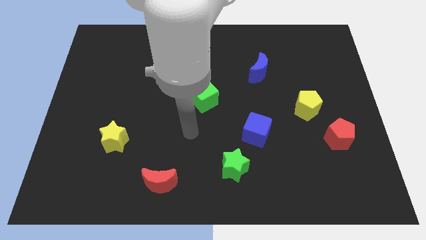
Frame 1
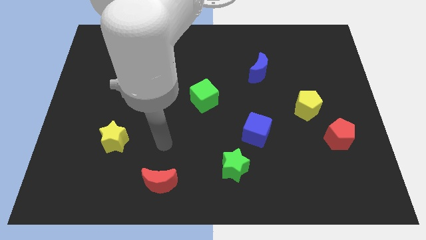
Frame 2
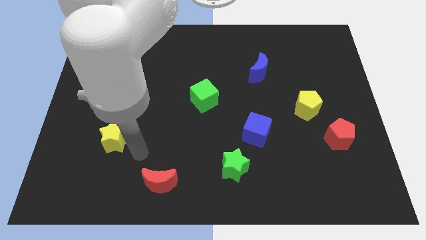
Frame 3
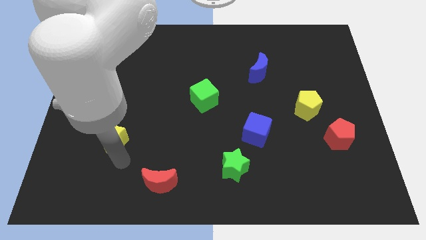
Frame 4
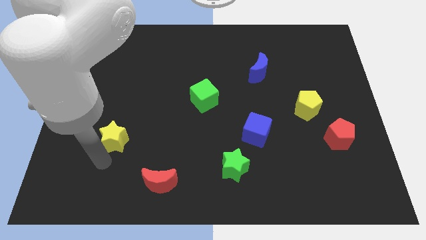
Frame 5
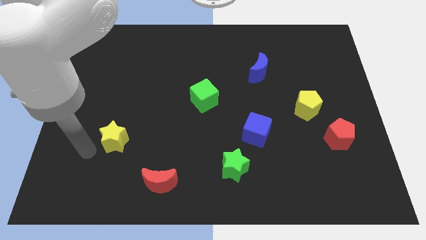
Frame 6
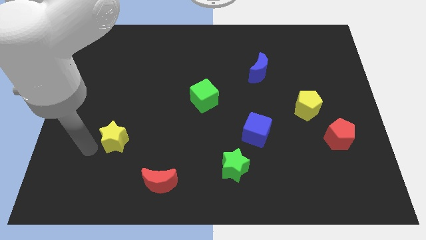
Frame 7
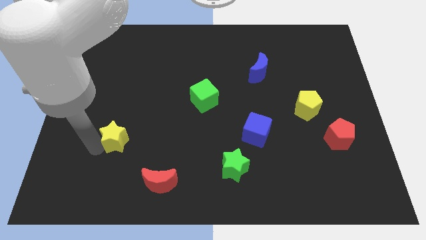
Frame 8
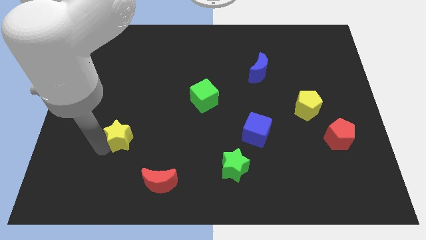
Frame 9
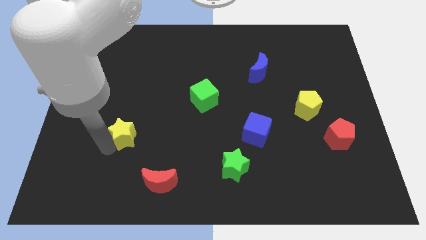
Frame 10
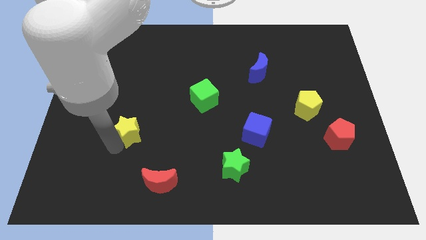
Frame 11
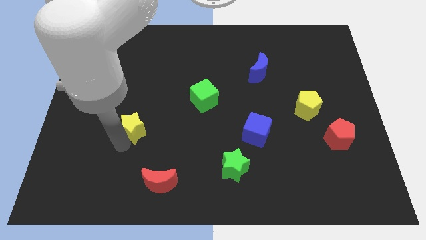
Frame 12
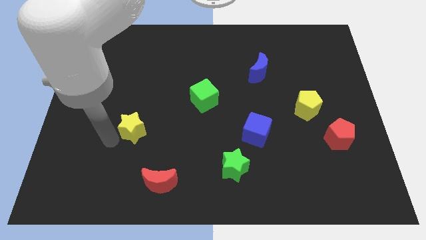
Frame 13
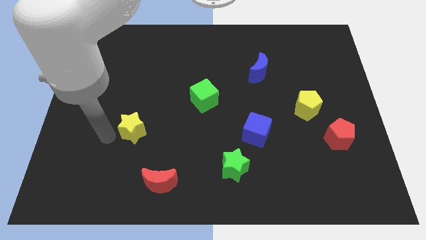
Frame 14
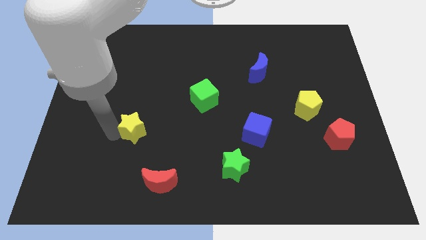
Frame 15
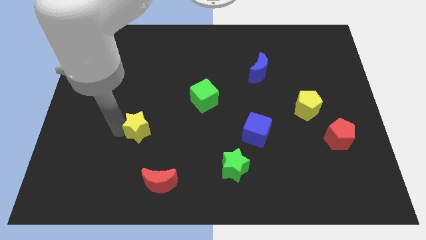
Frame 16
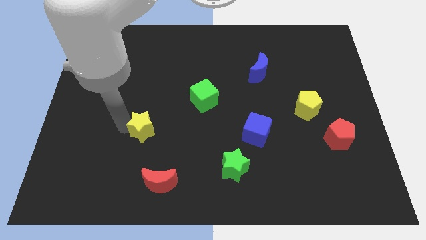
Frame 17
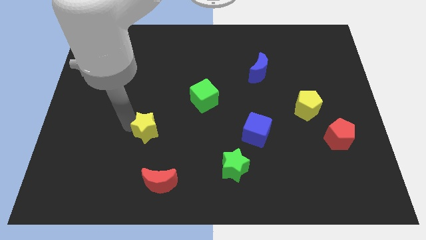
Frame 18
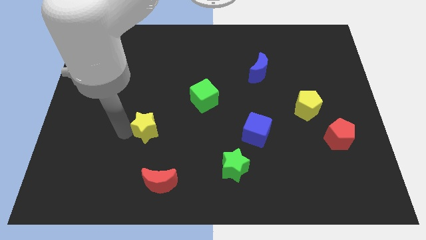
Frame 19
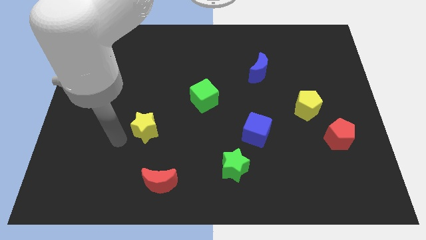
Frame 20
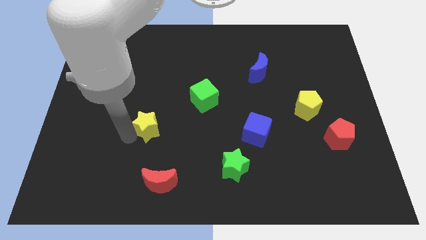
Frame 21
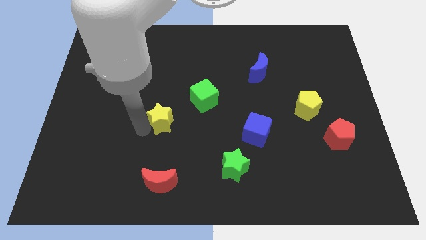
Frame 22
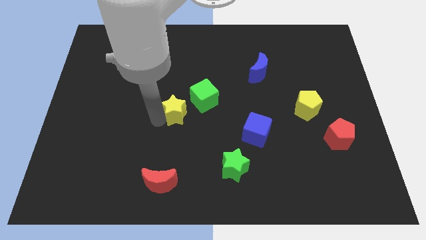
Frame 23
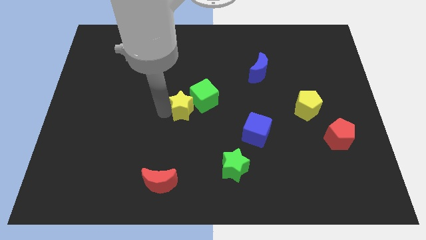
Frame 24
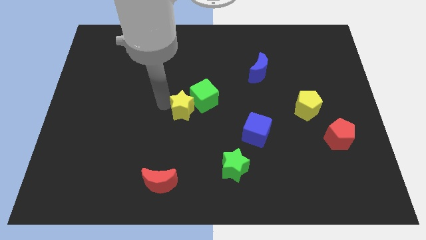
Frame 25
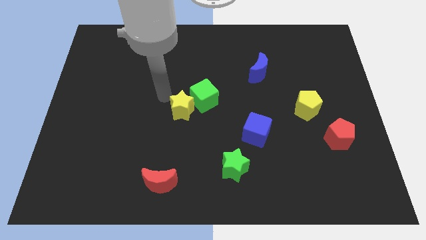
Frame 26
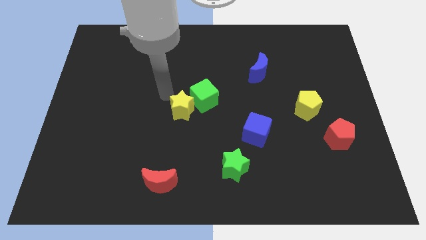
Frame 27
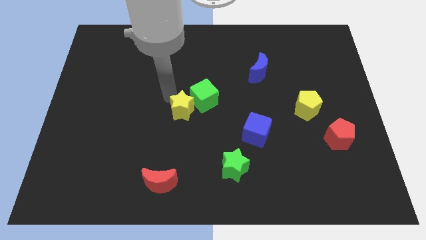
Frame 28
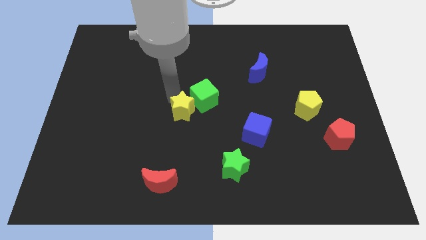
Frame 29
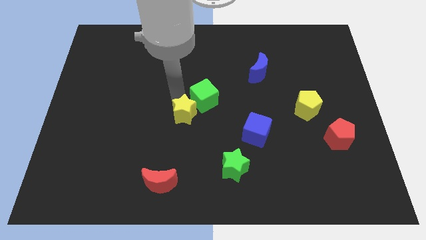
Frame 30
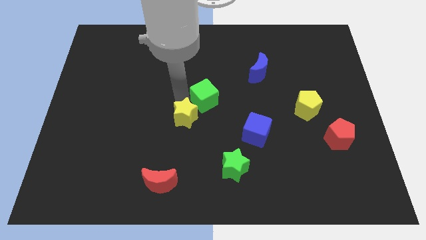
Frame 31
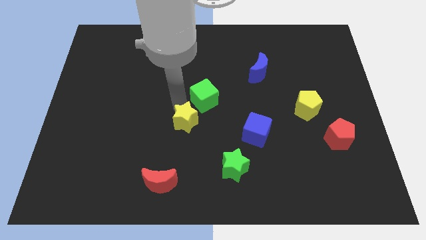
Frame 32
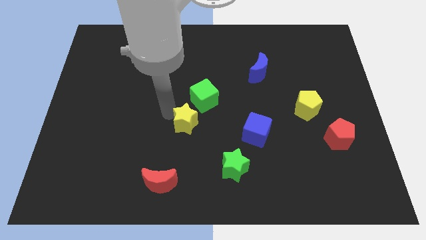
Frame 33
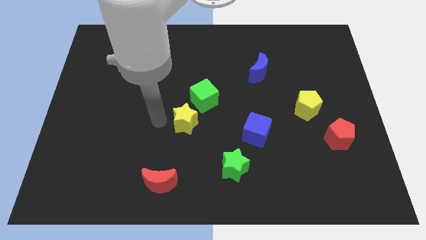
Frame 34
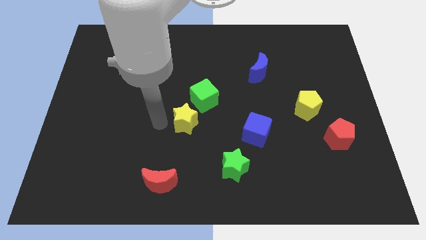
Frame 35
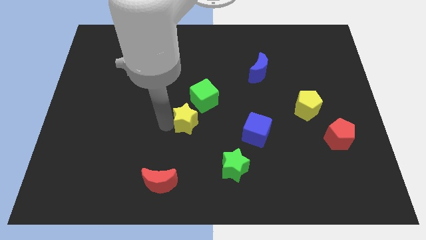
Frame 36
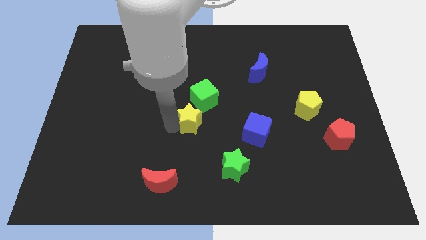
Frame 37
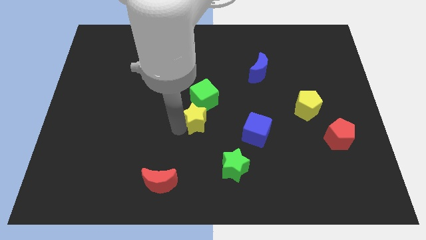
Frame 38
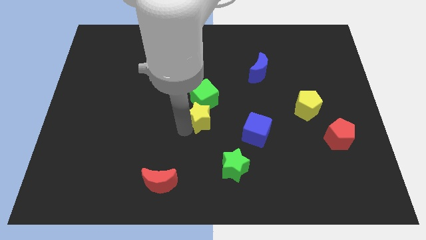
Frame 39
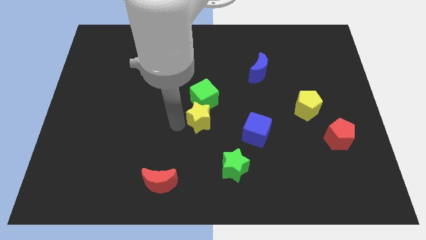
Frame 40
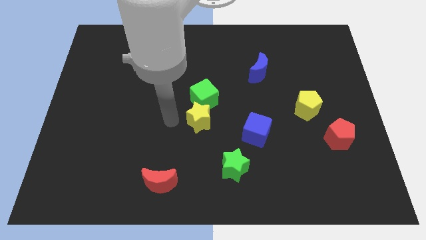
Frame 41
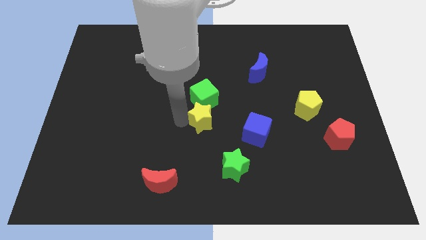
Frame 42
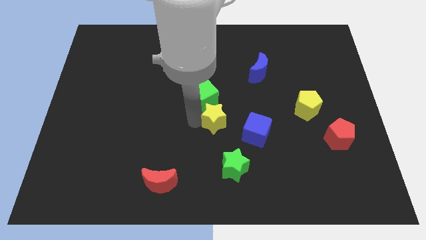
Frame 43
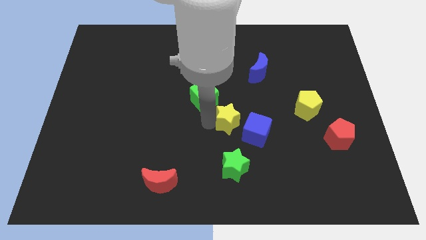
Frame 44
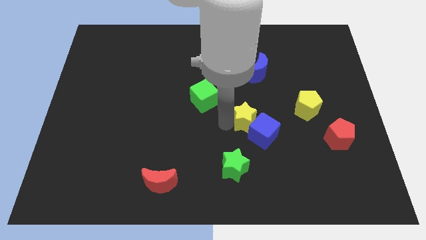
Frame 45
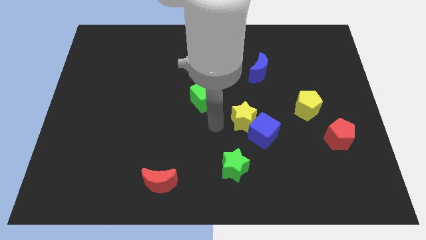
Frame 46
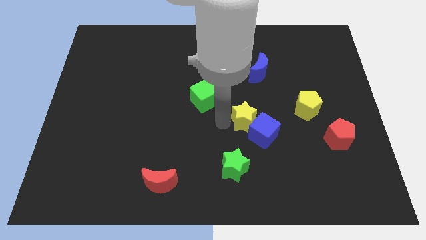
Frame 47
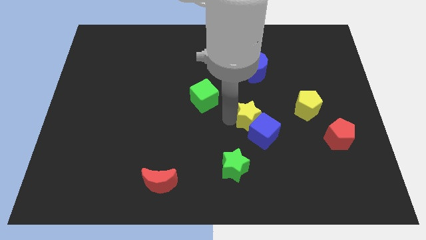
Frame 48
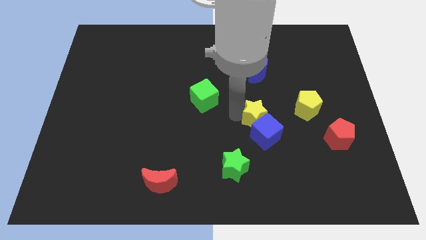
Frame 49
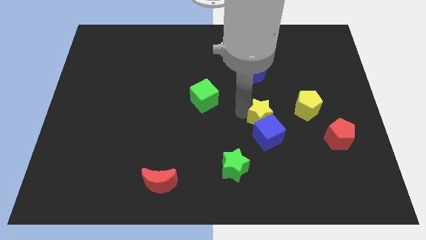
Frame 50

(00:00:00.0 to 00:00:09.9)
push the yellow star to the top right side of the blue cube

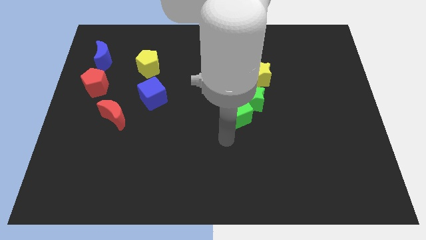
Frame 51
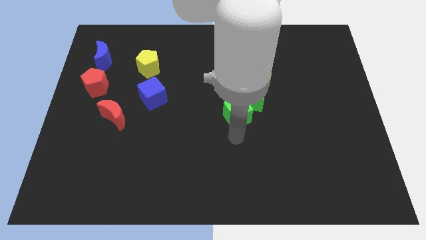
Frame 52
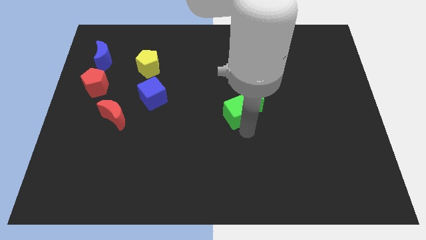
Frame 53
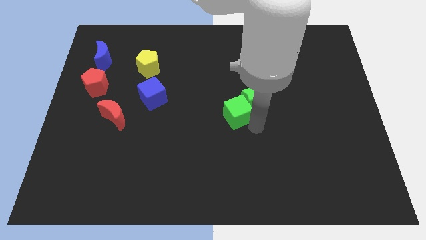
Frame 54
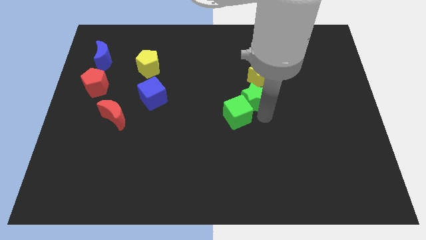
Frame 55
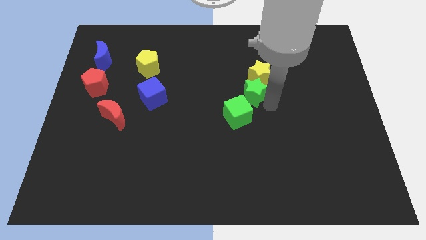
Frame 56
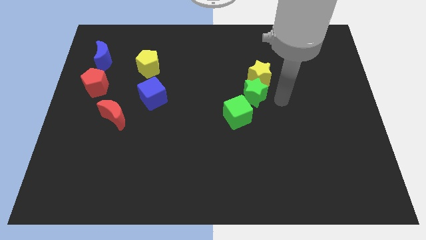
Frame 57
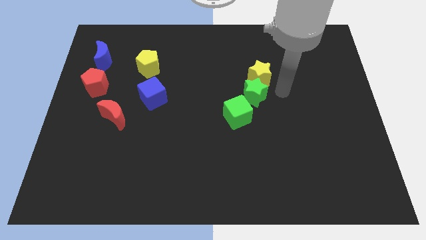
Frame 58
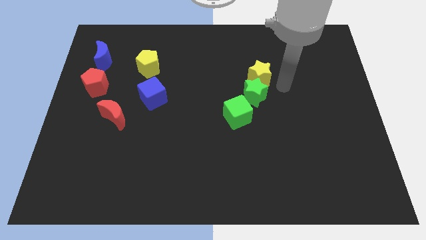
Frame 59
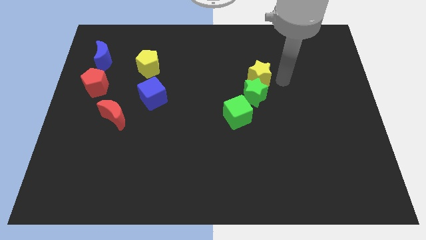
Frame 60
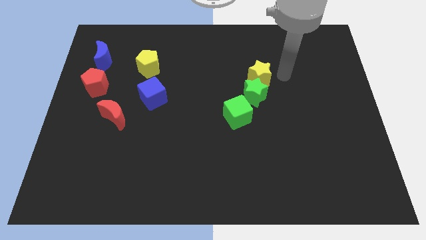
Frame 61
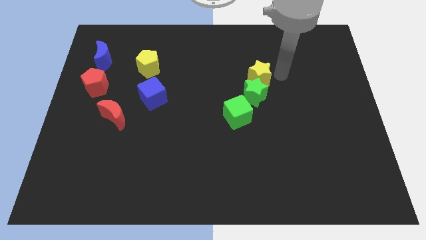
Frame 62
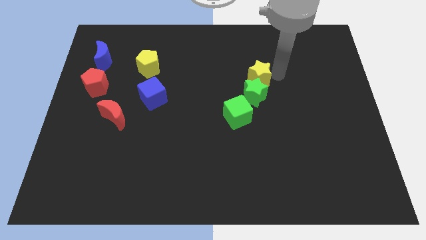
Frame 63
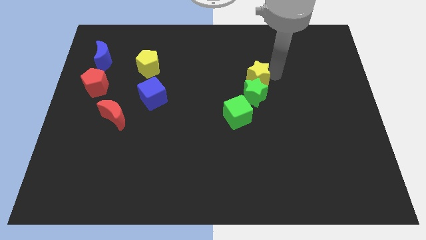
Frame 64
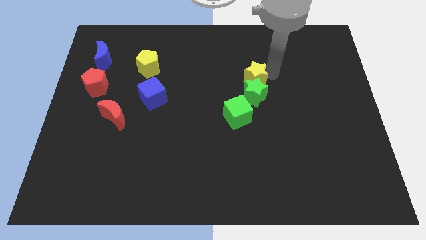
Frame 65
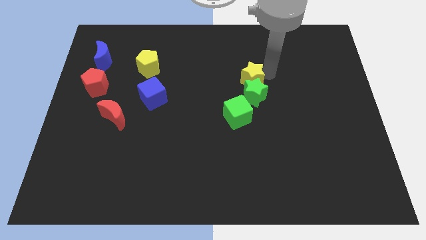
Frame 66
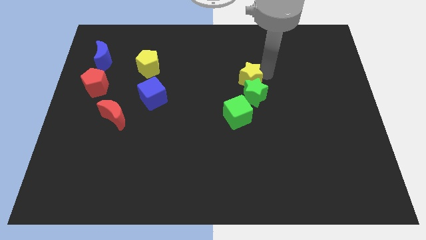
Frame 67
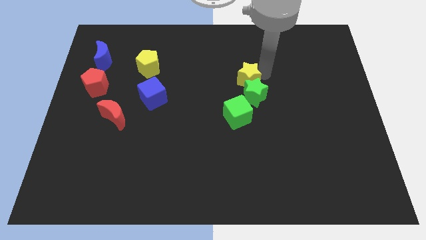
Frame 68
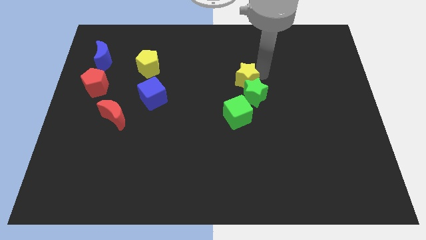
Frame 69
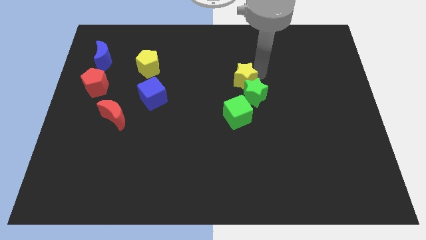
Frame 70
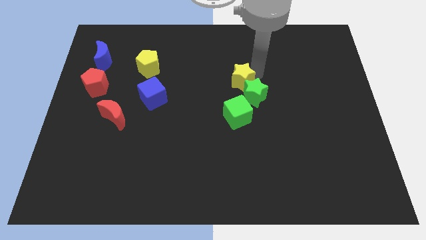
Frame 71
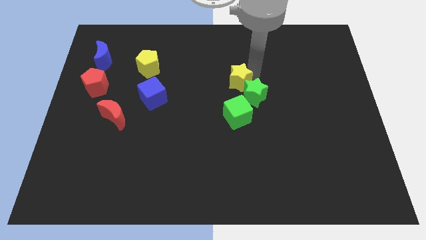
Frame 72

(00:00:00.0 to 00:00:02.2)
push the yellow star to the left side of the green star
